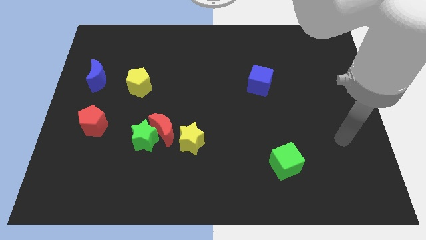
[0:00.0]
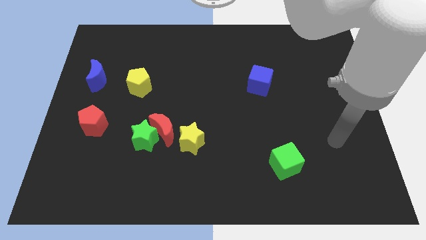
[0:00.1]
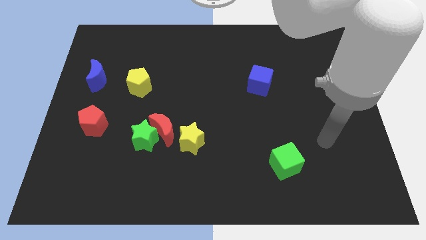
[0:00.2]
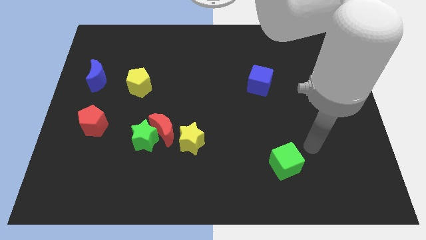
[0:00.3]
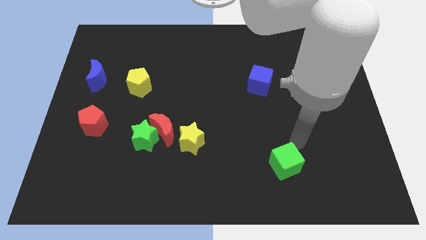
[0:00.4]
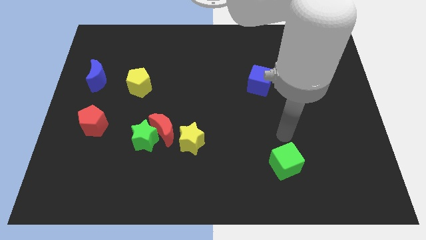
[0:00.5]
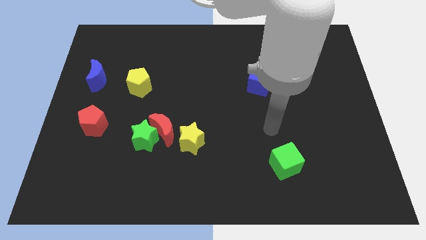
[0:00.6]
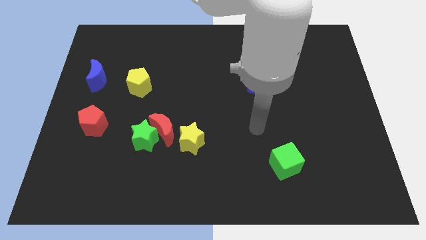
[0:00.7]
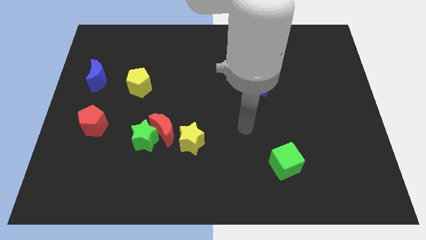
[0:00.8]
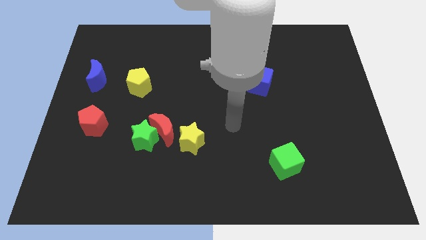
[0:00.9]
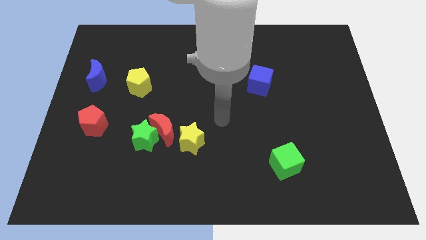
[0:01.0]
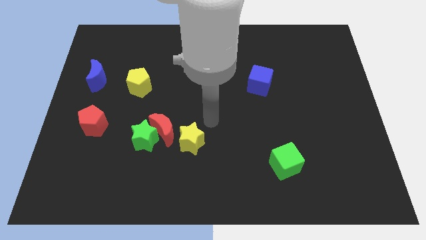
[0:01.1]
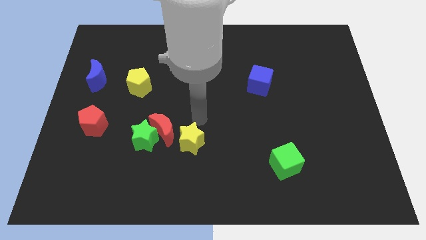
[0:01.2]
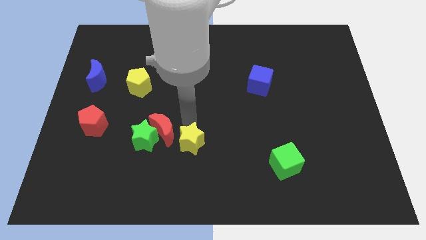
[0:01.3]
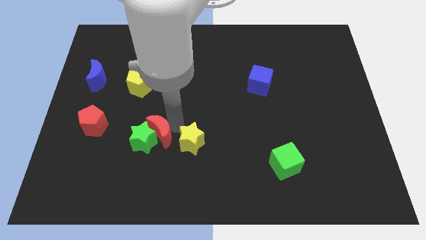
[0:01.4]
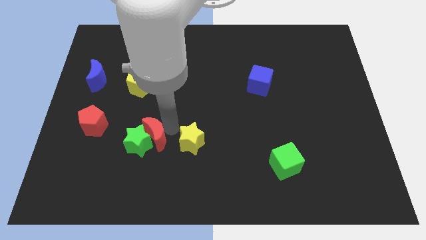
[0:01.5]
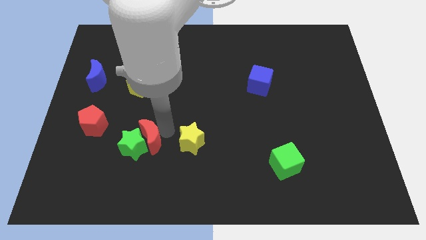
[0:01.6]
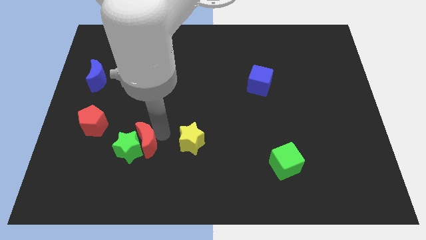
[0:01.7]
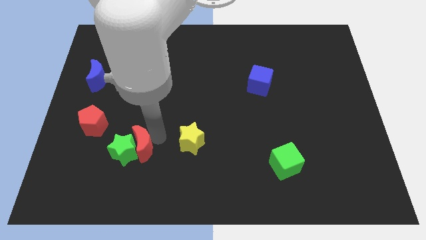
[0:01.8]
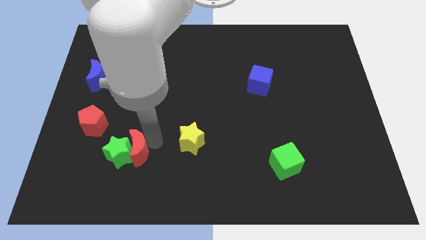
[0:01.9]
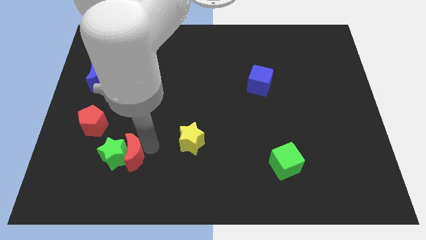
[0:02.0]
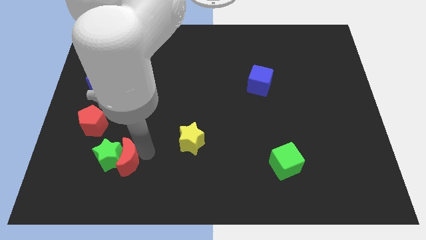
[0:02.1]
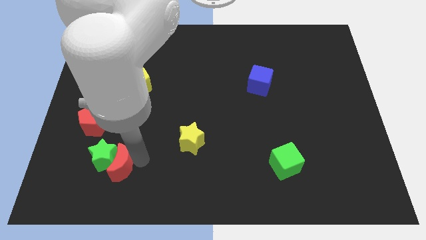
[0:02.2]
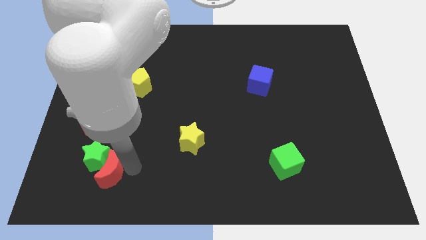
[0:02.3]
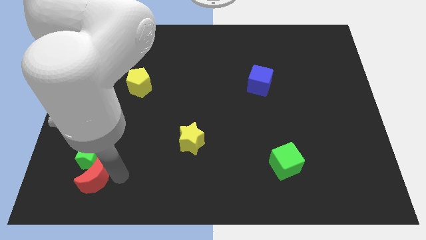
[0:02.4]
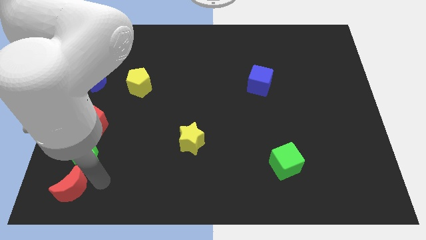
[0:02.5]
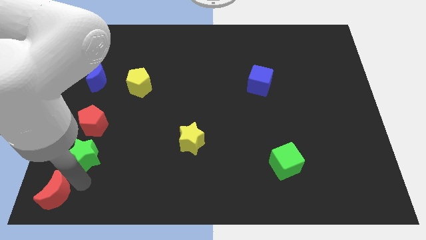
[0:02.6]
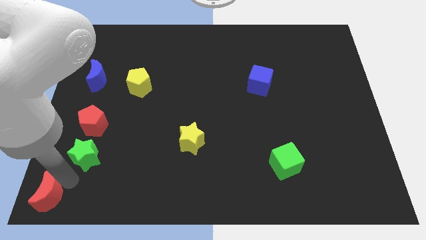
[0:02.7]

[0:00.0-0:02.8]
move the green star away from the red moon

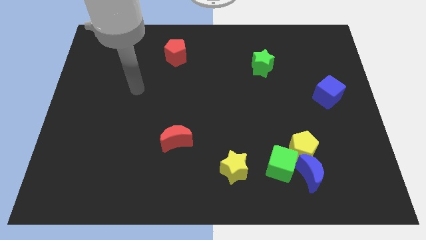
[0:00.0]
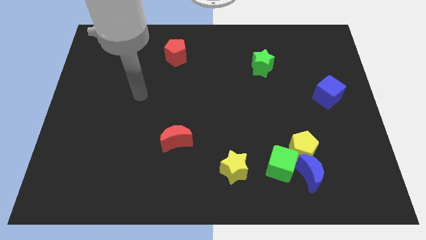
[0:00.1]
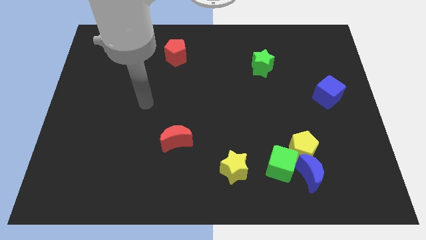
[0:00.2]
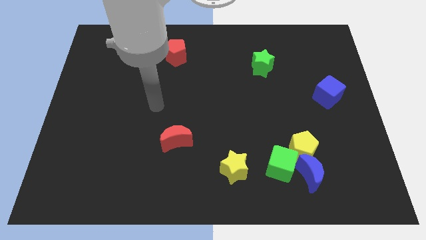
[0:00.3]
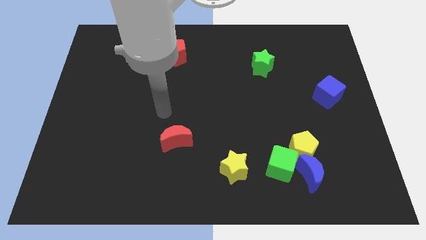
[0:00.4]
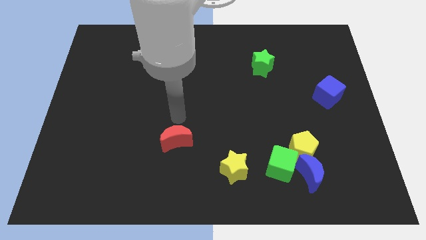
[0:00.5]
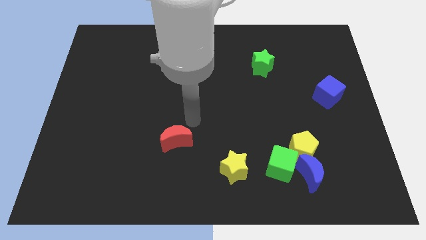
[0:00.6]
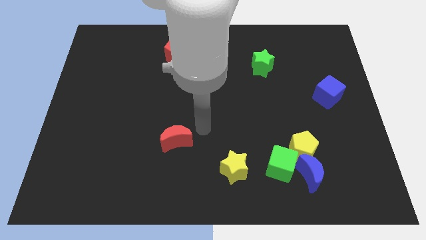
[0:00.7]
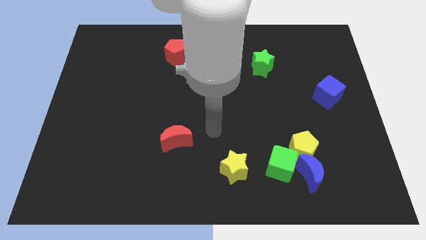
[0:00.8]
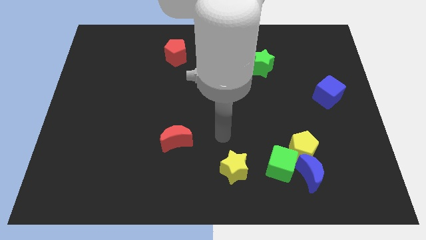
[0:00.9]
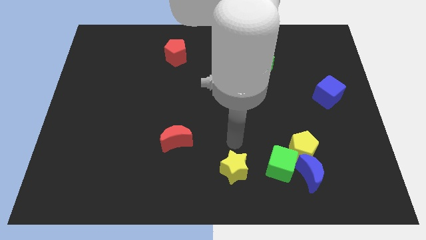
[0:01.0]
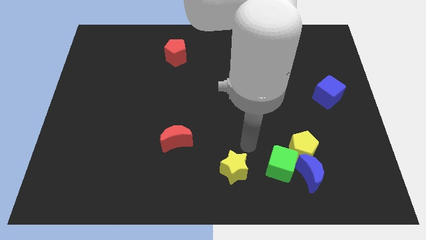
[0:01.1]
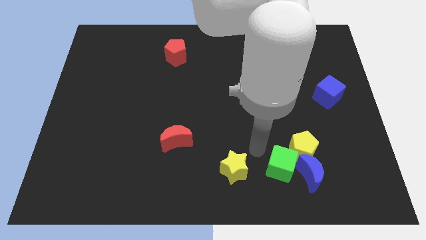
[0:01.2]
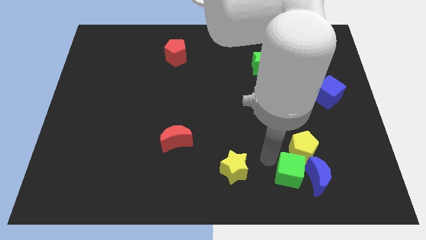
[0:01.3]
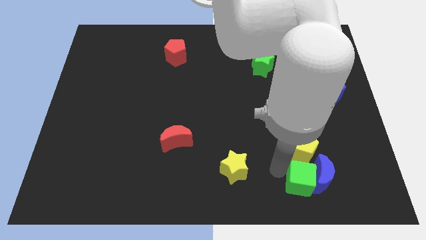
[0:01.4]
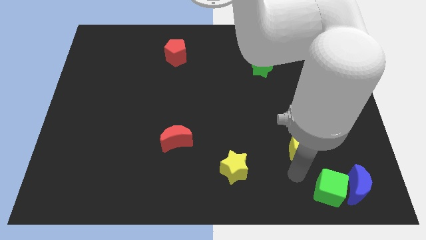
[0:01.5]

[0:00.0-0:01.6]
move the yellow pentagon away from the blue moon and green cube

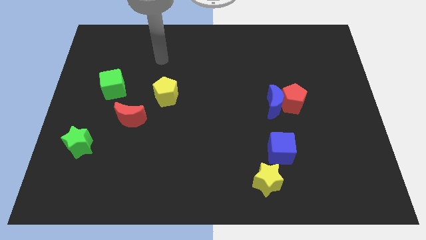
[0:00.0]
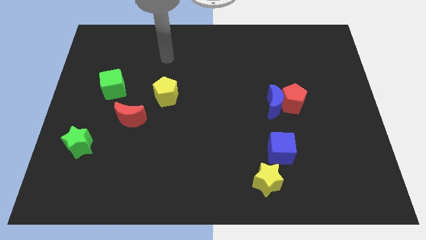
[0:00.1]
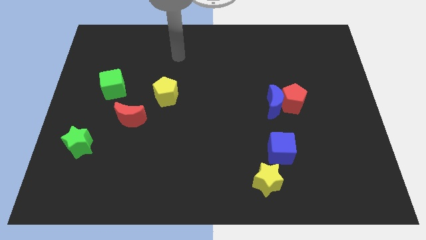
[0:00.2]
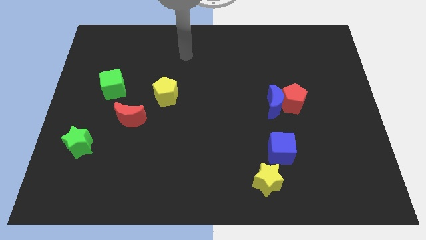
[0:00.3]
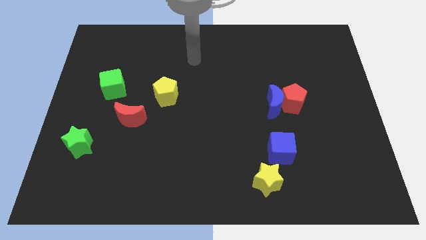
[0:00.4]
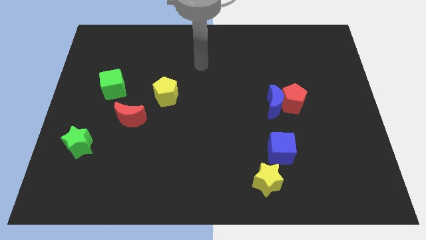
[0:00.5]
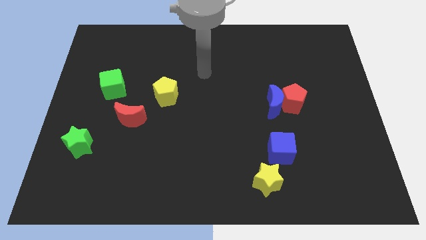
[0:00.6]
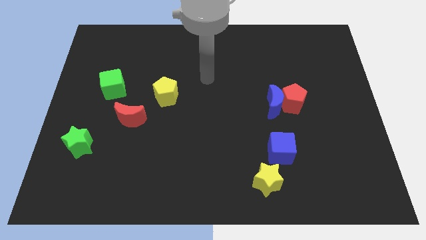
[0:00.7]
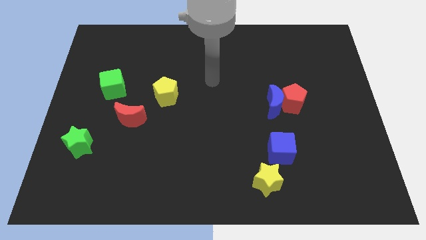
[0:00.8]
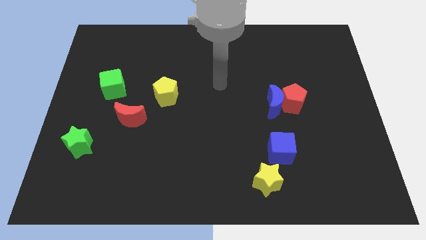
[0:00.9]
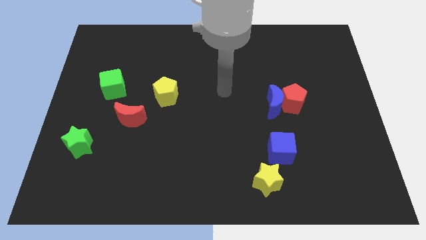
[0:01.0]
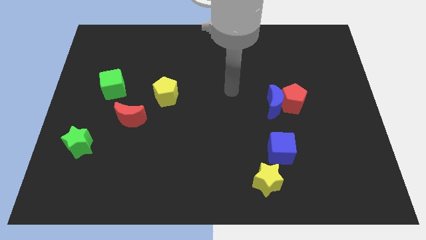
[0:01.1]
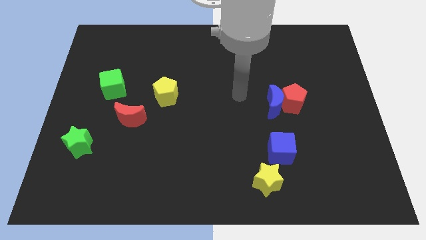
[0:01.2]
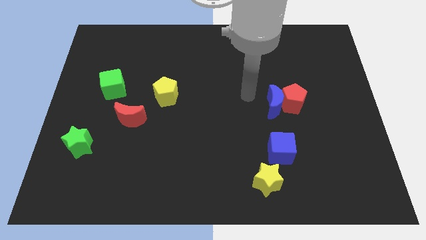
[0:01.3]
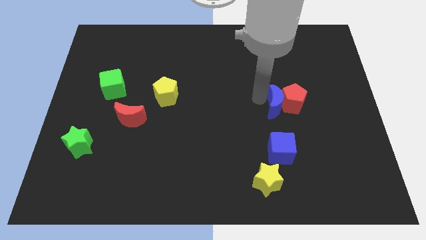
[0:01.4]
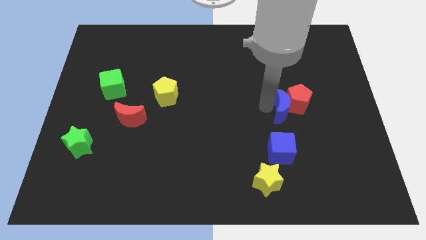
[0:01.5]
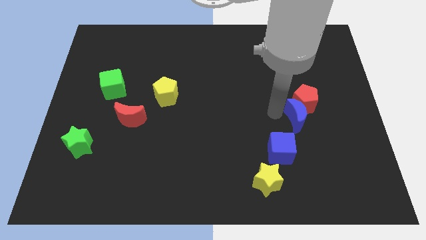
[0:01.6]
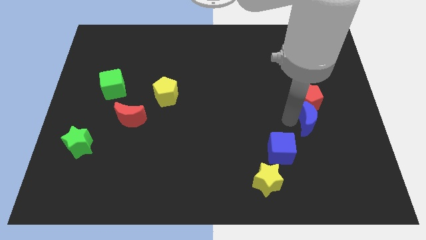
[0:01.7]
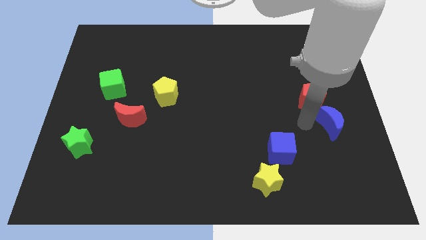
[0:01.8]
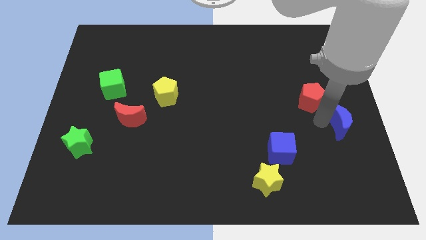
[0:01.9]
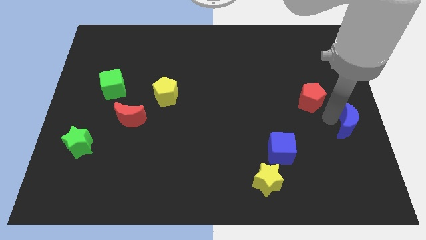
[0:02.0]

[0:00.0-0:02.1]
separate the red pentagon from the blue moon

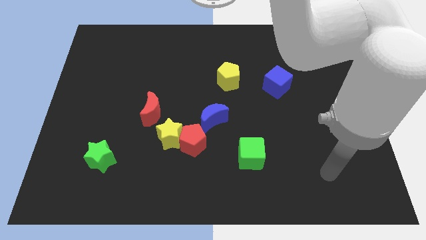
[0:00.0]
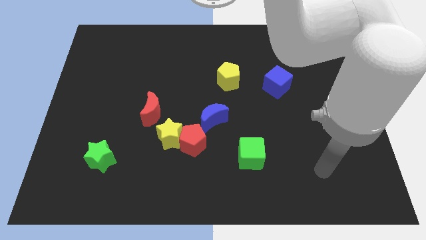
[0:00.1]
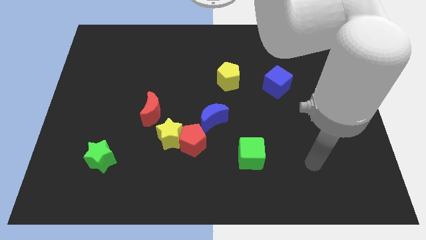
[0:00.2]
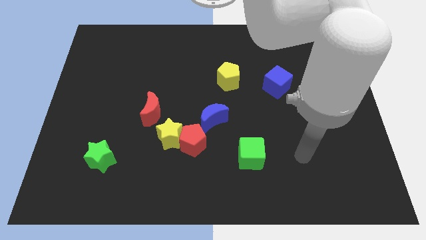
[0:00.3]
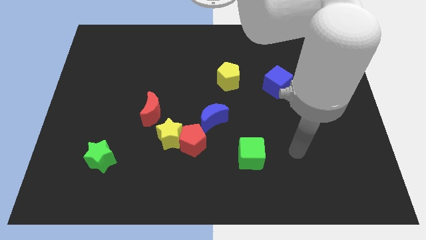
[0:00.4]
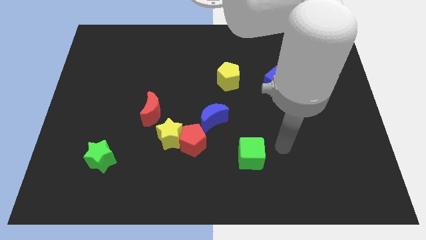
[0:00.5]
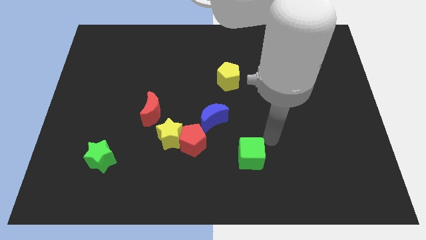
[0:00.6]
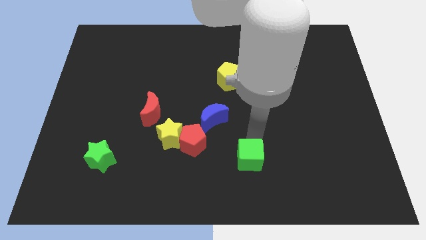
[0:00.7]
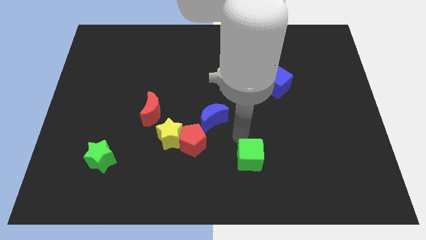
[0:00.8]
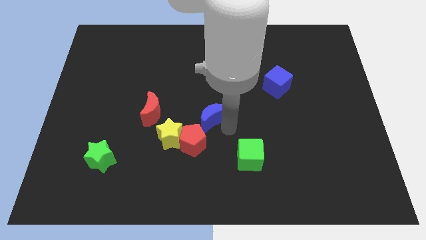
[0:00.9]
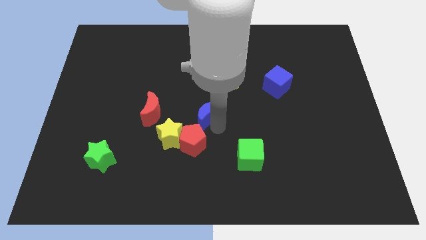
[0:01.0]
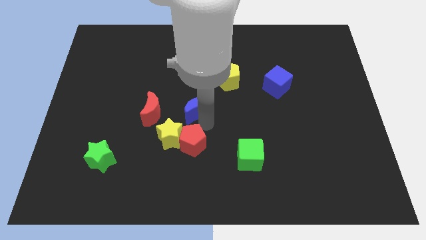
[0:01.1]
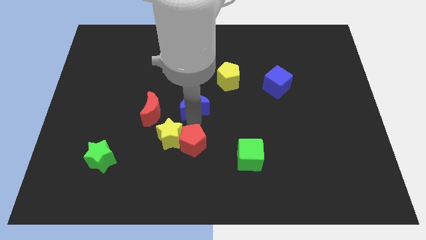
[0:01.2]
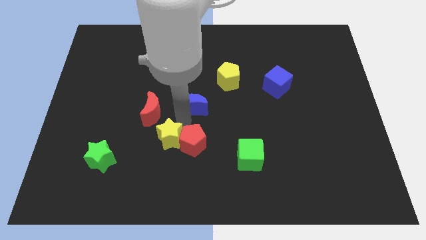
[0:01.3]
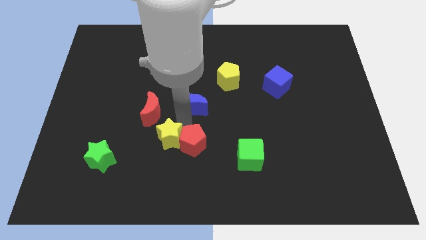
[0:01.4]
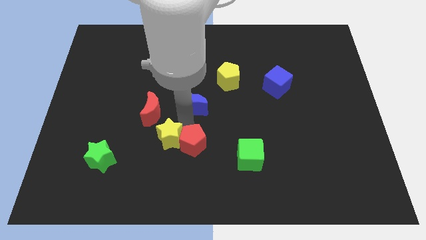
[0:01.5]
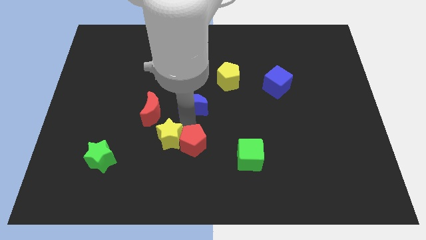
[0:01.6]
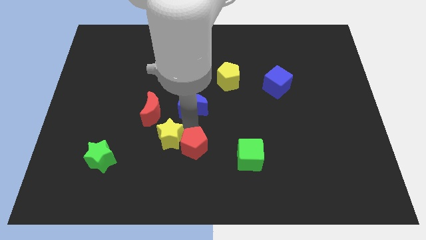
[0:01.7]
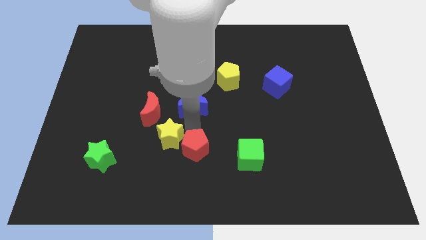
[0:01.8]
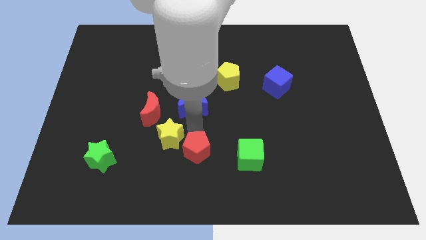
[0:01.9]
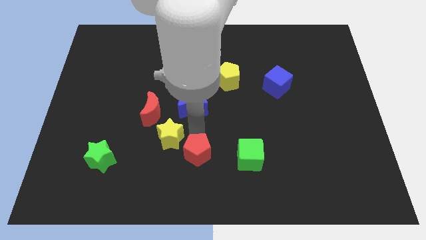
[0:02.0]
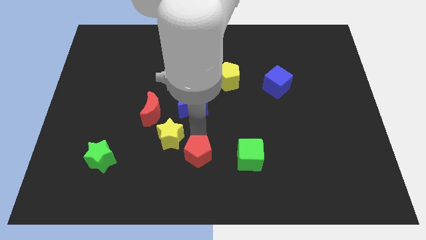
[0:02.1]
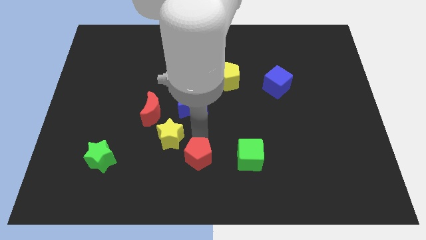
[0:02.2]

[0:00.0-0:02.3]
move the red pentagon away from the yellow star and blue moon

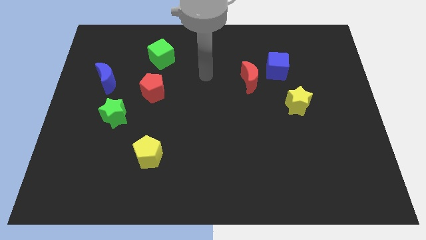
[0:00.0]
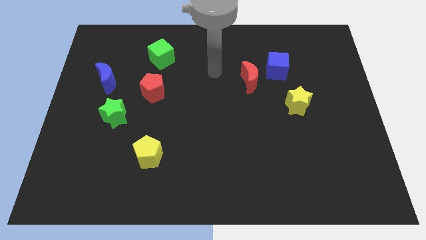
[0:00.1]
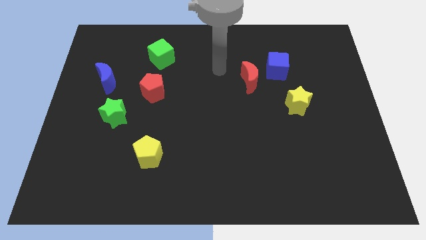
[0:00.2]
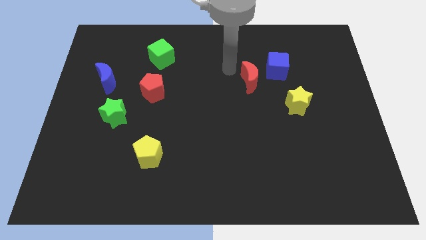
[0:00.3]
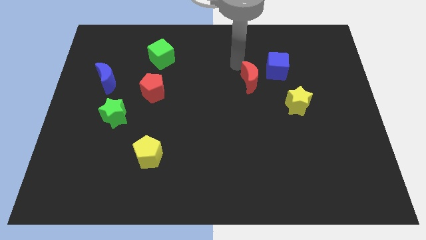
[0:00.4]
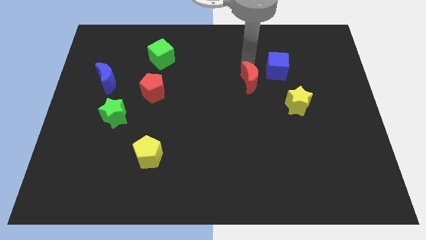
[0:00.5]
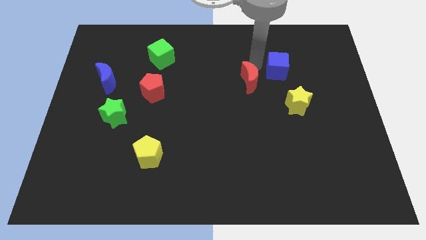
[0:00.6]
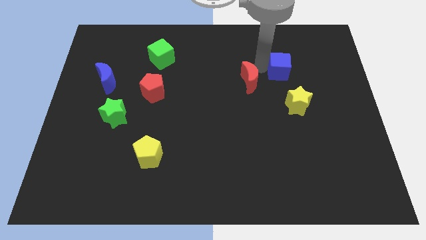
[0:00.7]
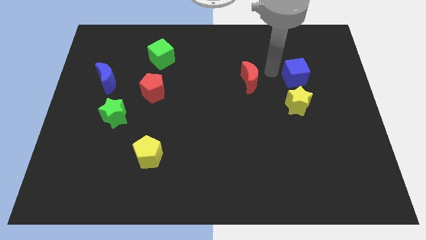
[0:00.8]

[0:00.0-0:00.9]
move the red moon away from the blue cube
